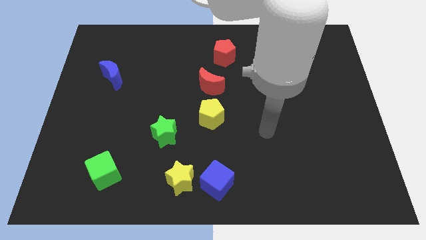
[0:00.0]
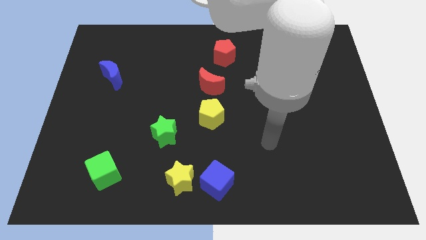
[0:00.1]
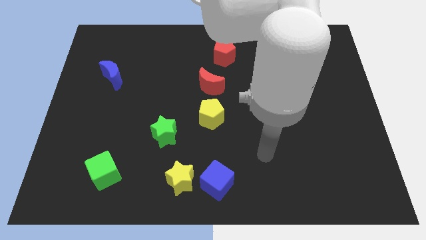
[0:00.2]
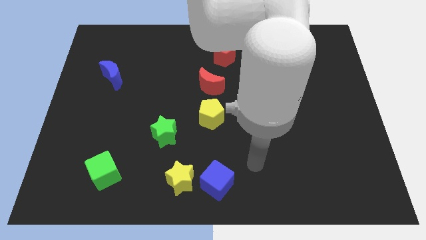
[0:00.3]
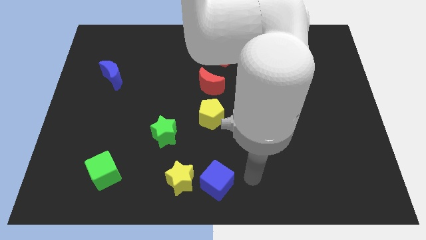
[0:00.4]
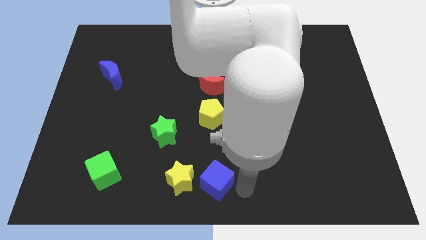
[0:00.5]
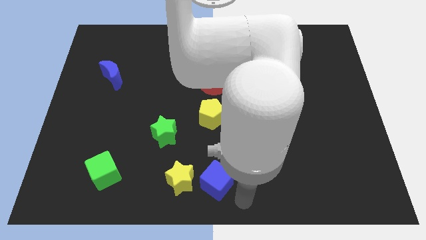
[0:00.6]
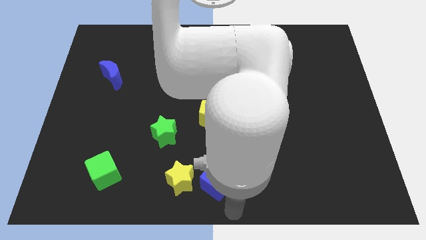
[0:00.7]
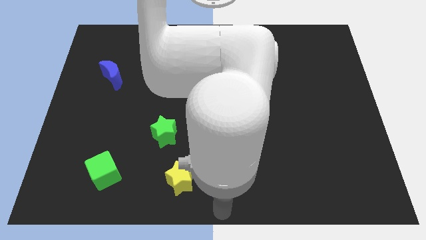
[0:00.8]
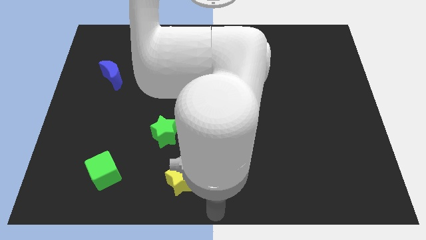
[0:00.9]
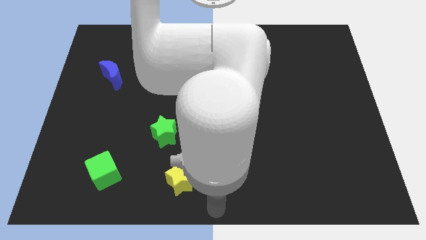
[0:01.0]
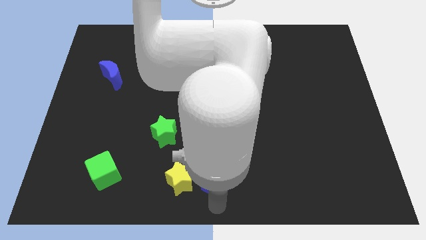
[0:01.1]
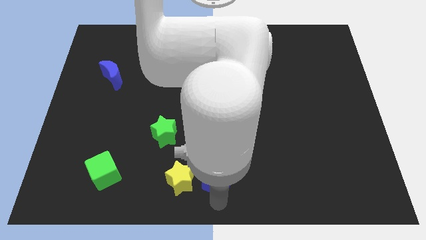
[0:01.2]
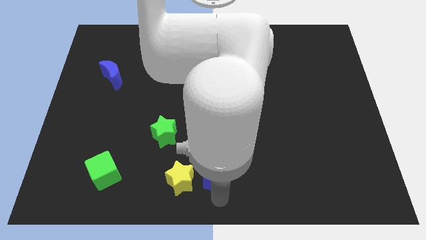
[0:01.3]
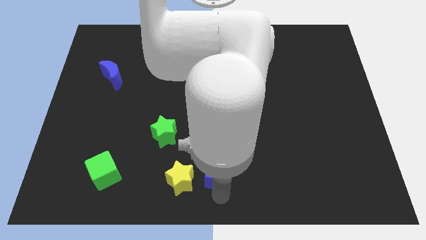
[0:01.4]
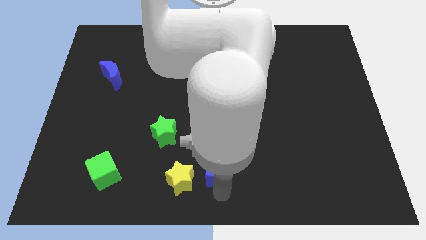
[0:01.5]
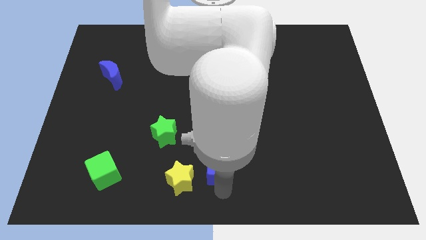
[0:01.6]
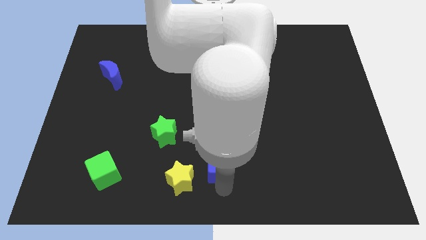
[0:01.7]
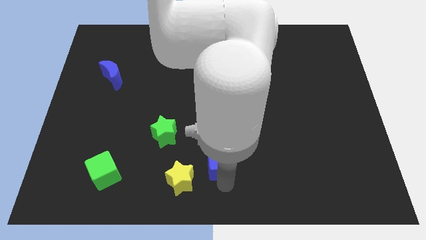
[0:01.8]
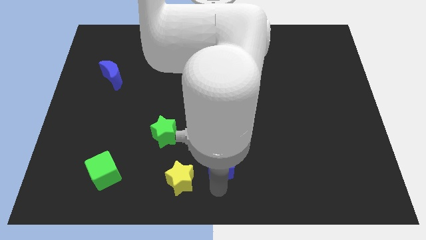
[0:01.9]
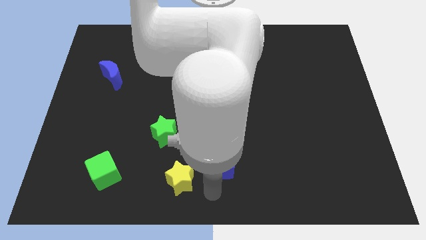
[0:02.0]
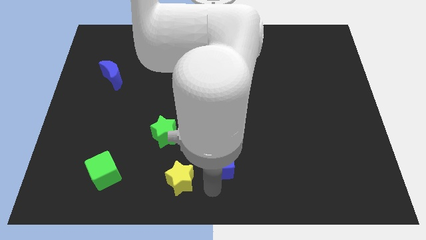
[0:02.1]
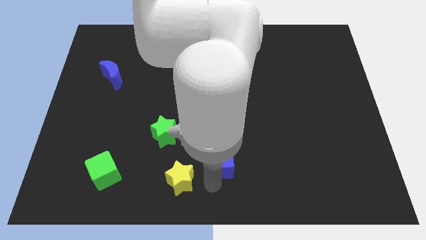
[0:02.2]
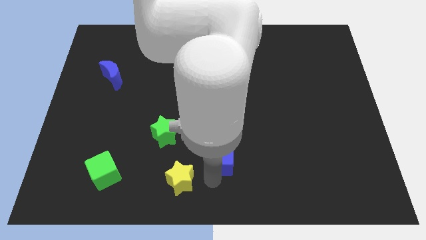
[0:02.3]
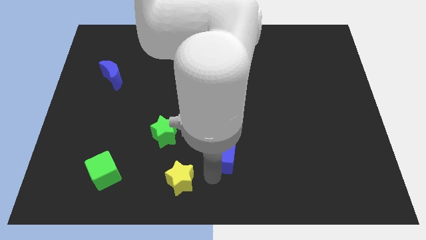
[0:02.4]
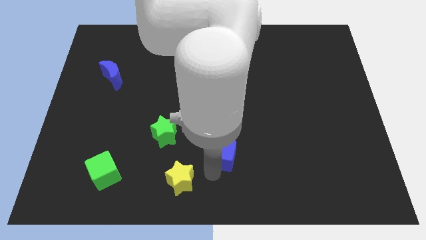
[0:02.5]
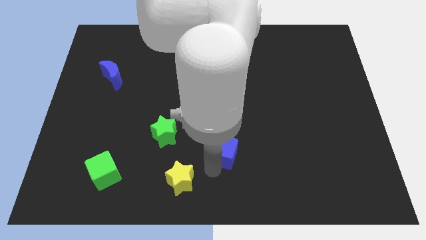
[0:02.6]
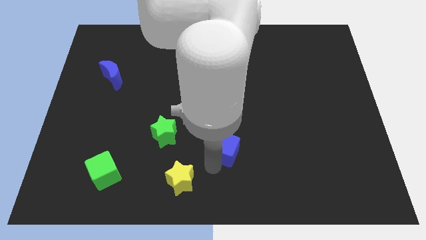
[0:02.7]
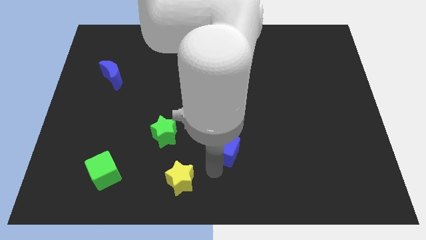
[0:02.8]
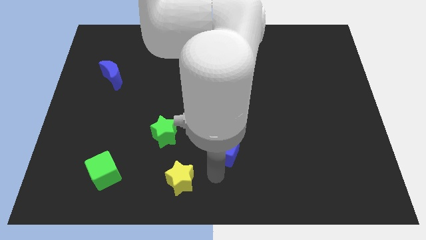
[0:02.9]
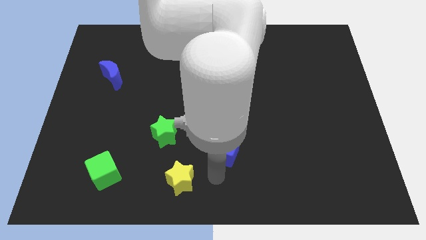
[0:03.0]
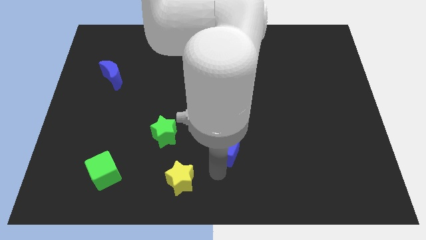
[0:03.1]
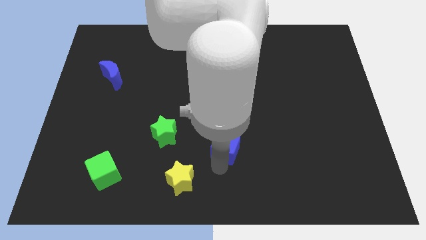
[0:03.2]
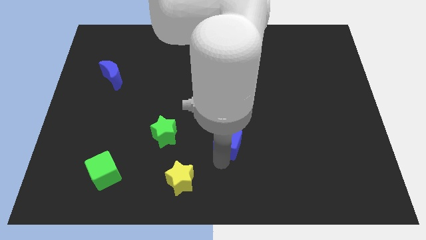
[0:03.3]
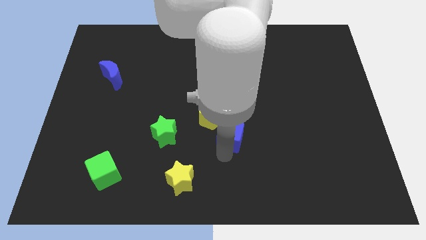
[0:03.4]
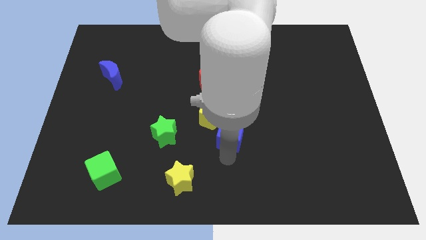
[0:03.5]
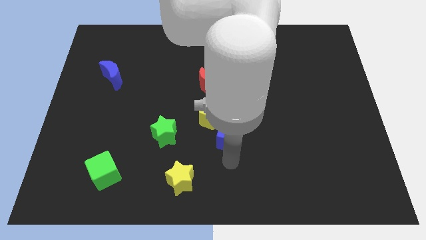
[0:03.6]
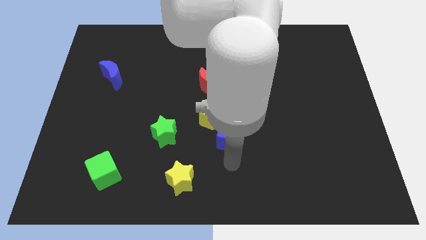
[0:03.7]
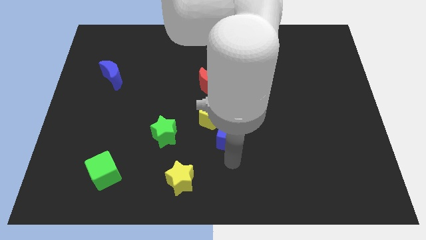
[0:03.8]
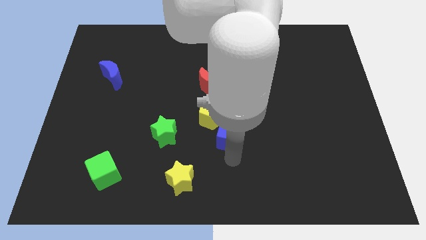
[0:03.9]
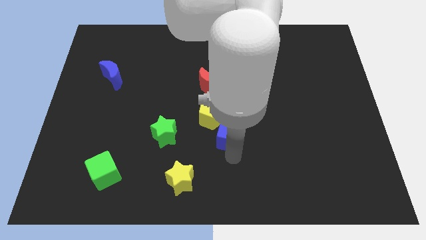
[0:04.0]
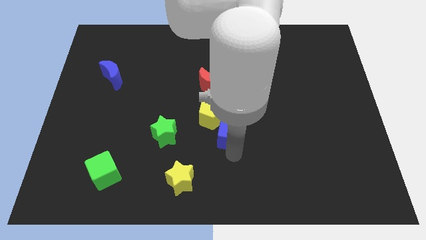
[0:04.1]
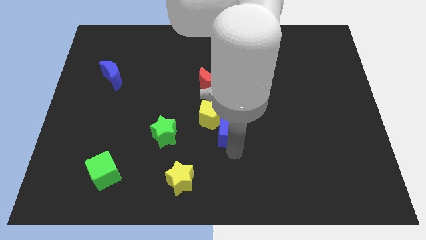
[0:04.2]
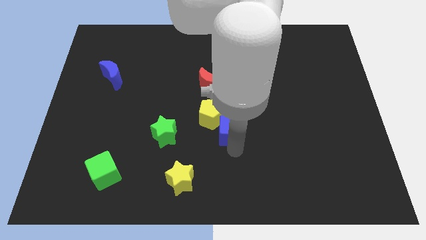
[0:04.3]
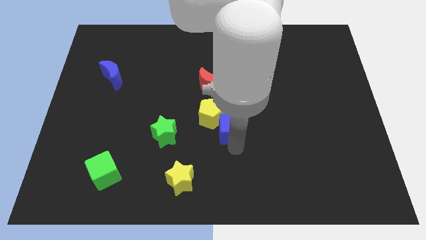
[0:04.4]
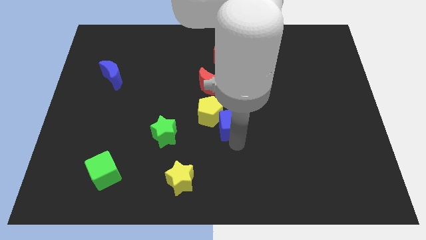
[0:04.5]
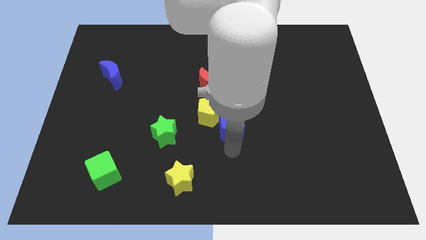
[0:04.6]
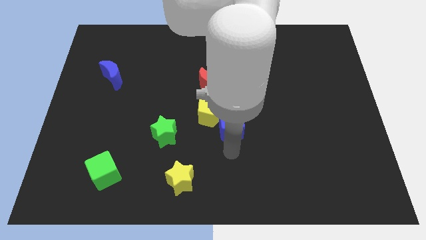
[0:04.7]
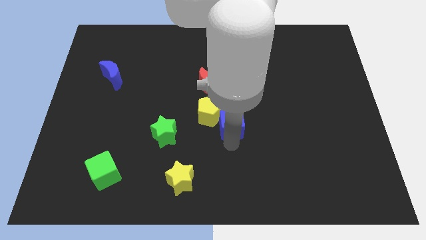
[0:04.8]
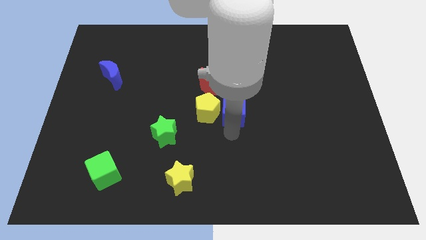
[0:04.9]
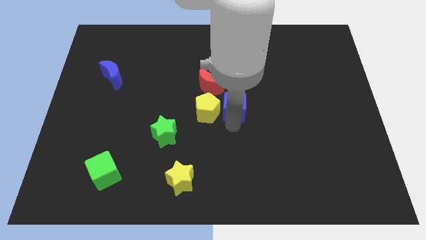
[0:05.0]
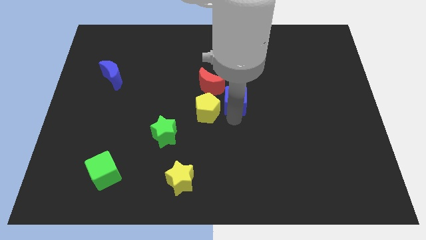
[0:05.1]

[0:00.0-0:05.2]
move the blue cube upwards

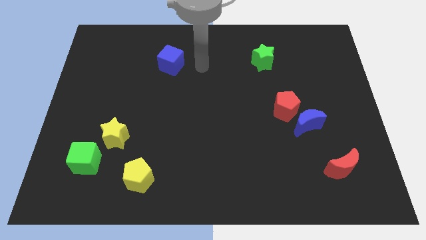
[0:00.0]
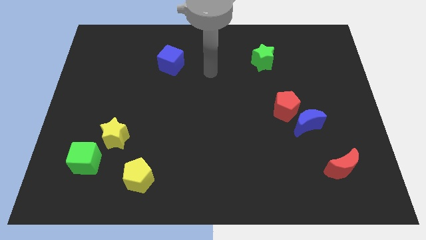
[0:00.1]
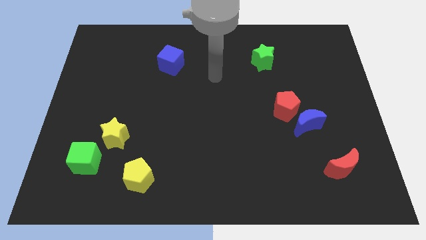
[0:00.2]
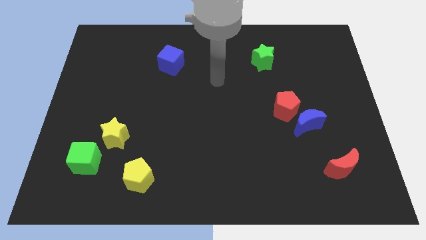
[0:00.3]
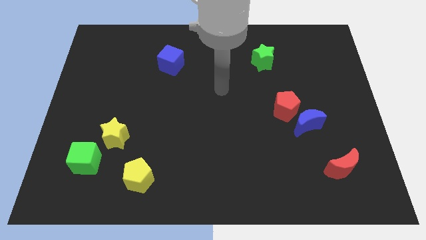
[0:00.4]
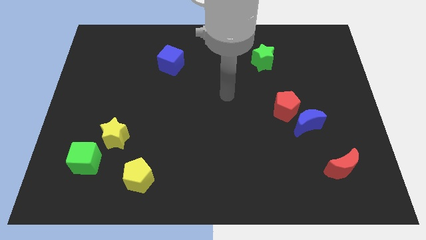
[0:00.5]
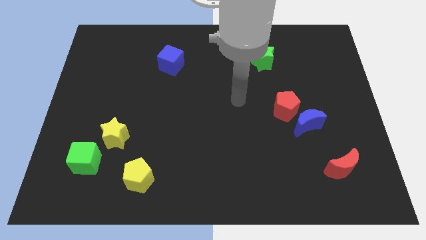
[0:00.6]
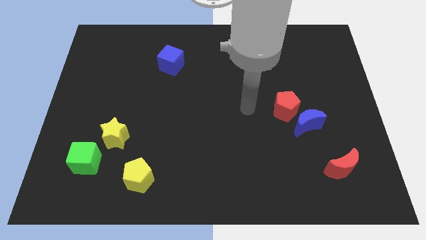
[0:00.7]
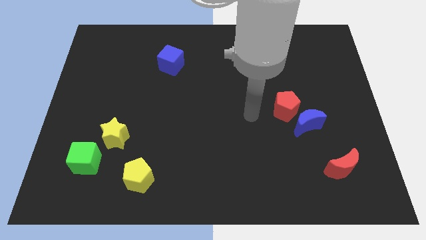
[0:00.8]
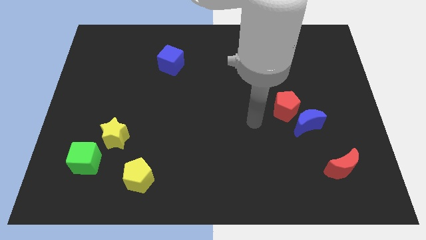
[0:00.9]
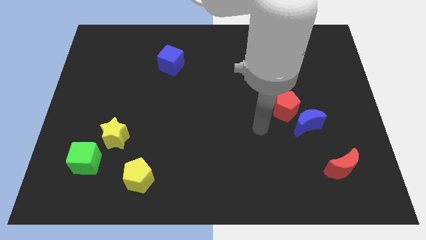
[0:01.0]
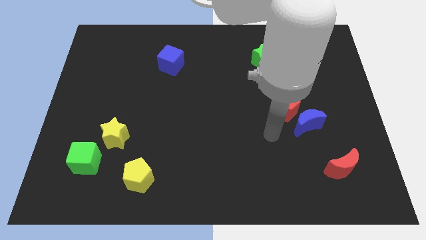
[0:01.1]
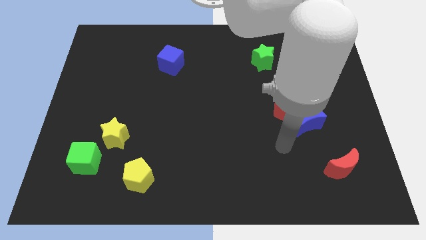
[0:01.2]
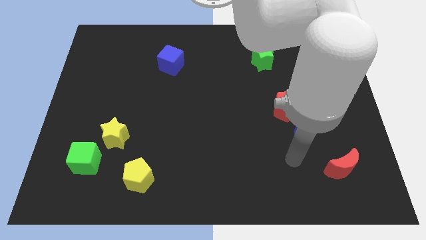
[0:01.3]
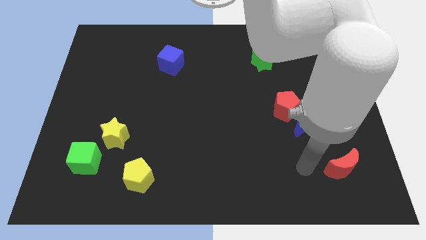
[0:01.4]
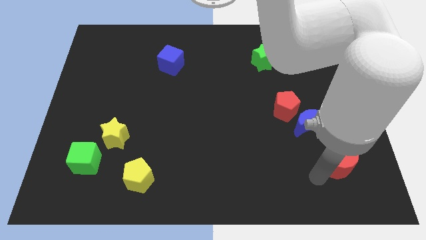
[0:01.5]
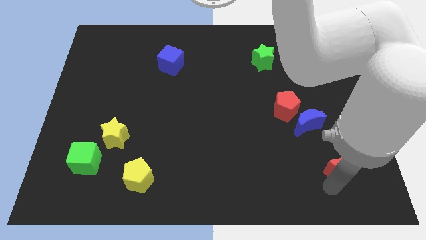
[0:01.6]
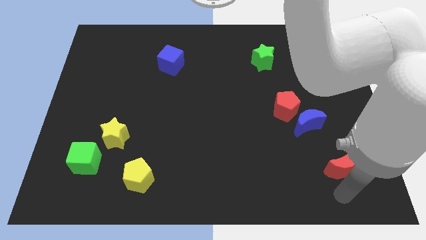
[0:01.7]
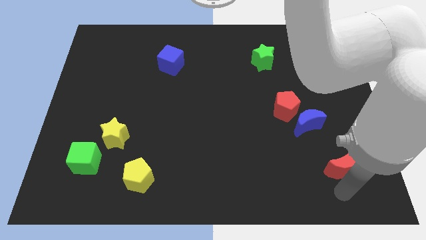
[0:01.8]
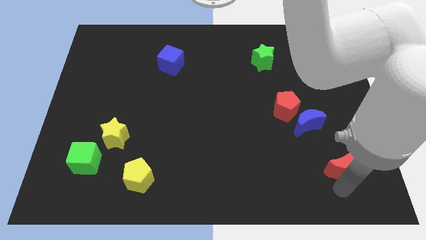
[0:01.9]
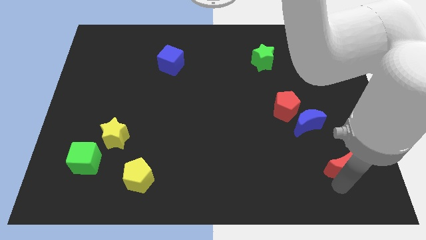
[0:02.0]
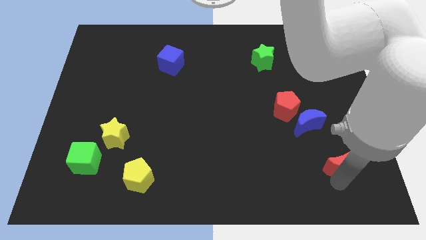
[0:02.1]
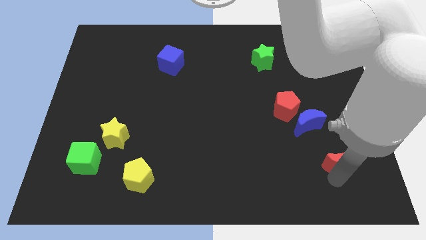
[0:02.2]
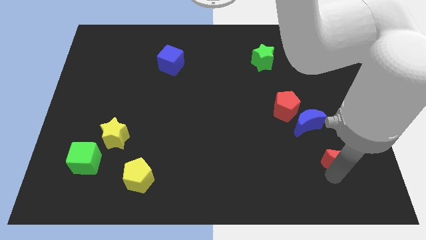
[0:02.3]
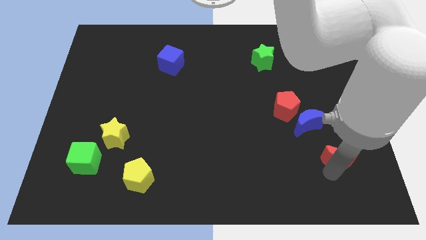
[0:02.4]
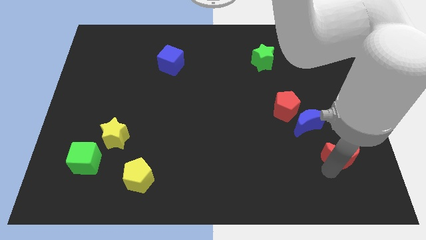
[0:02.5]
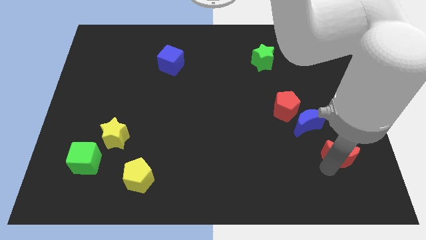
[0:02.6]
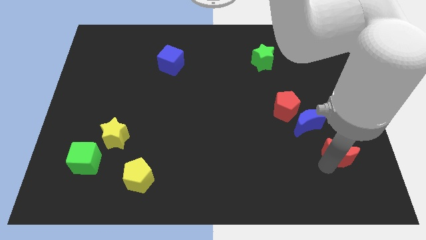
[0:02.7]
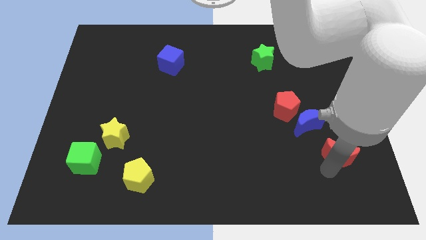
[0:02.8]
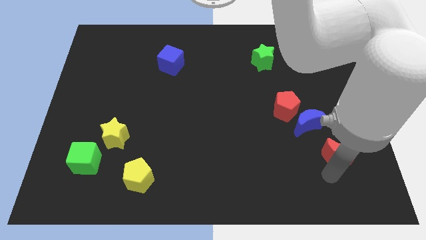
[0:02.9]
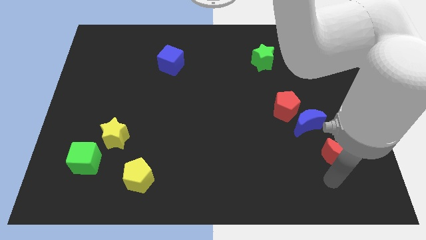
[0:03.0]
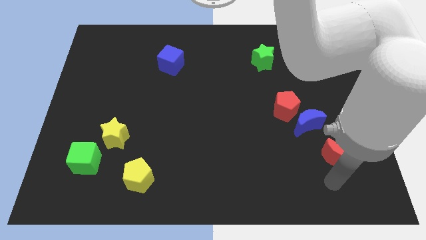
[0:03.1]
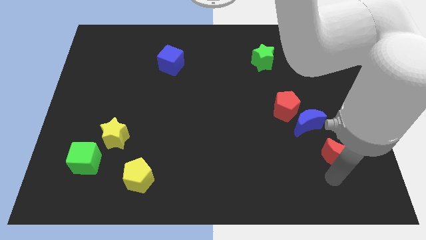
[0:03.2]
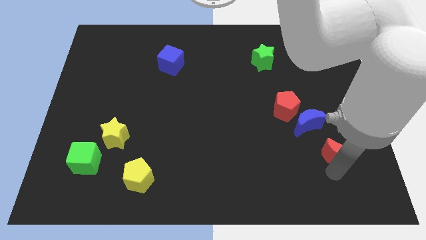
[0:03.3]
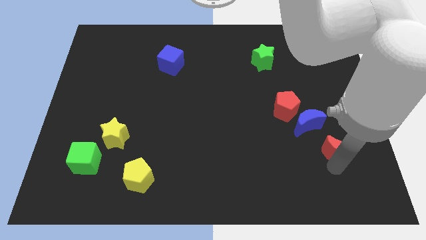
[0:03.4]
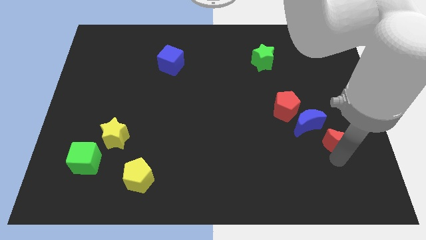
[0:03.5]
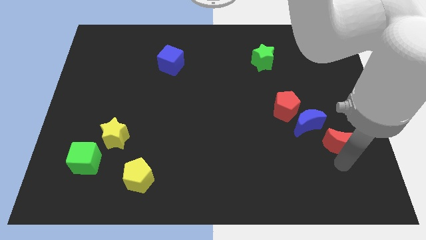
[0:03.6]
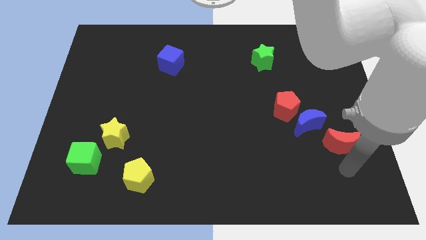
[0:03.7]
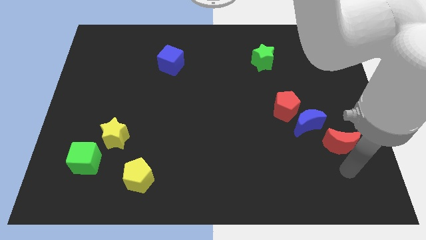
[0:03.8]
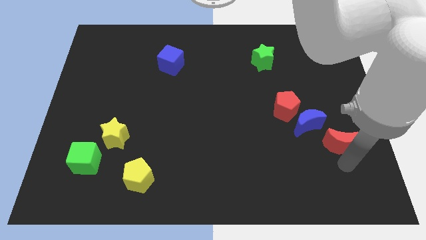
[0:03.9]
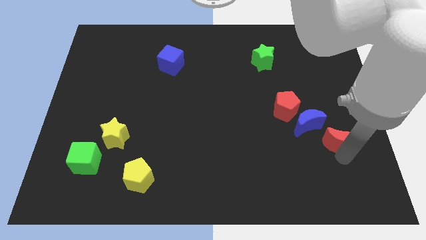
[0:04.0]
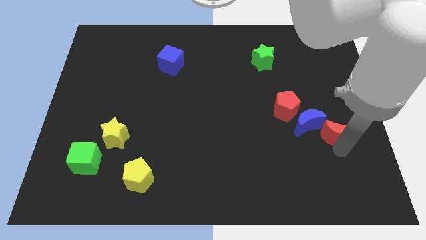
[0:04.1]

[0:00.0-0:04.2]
push the red moon upwards slightly
